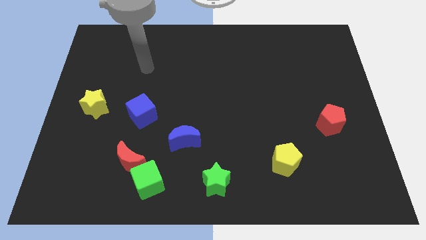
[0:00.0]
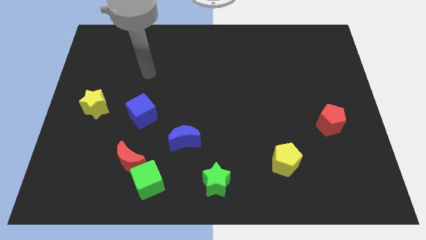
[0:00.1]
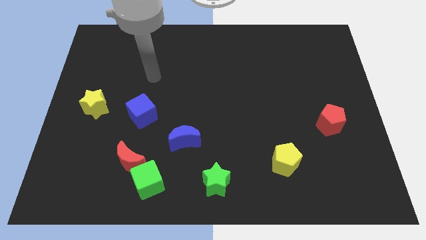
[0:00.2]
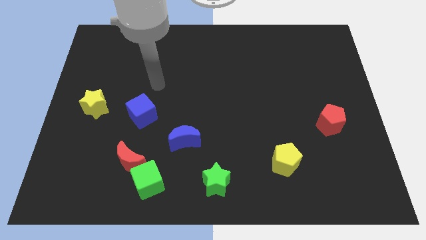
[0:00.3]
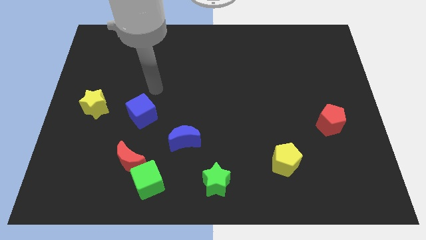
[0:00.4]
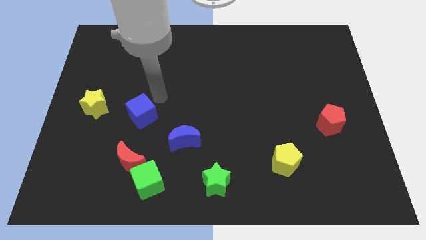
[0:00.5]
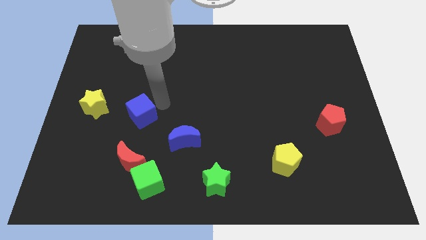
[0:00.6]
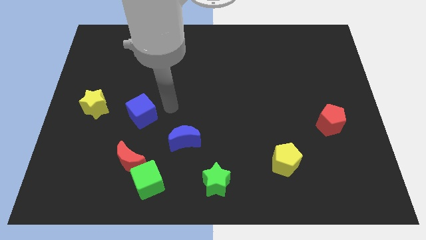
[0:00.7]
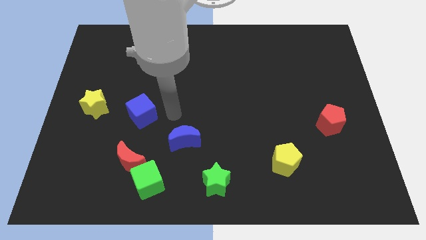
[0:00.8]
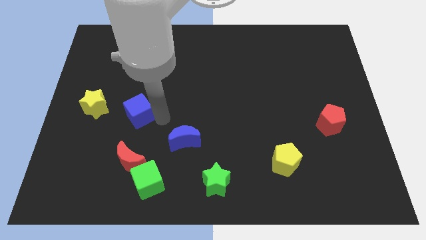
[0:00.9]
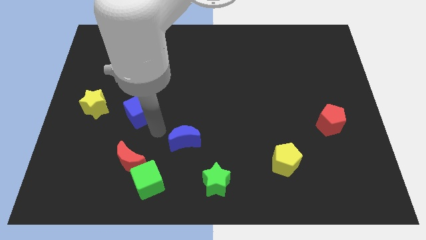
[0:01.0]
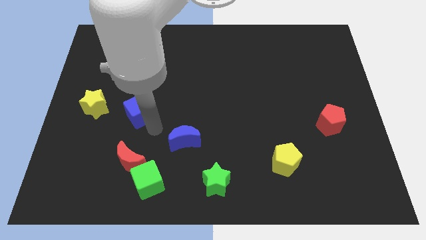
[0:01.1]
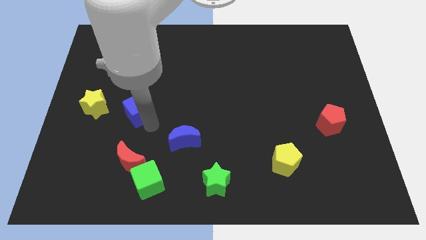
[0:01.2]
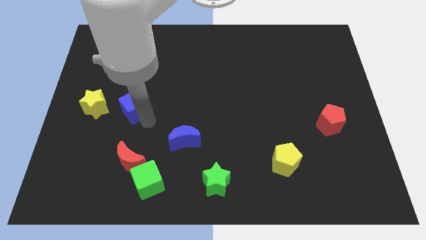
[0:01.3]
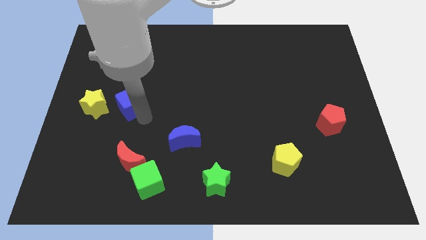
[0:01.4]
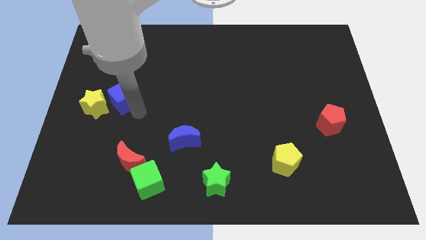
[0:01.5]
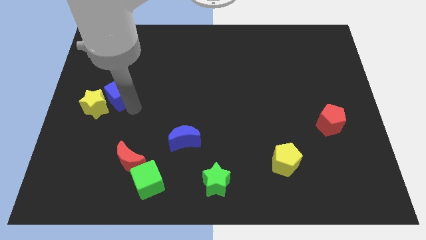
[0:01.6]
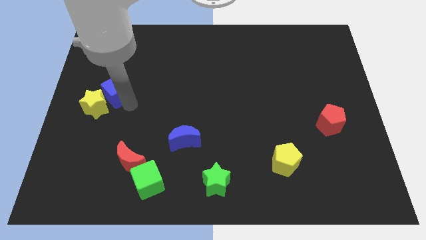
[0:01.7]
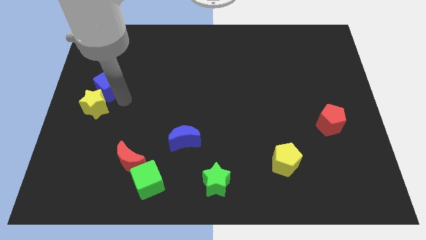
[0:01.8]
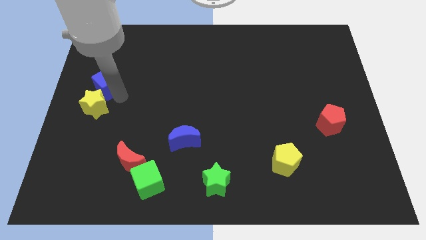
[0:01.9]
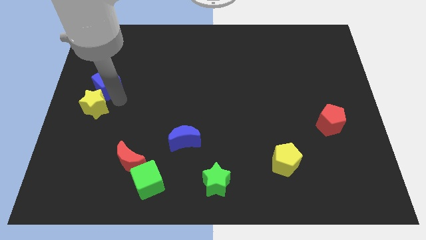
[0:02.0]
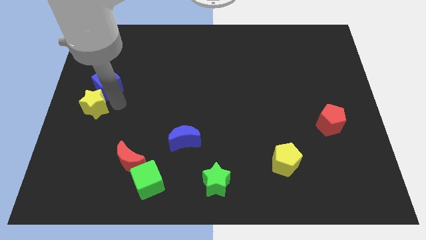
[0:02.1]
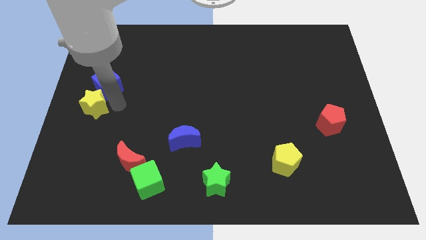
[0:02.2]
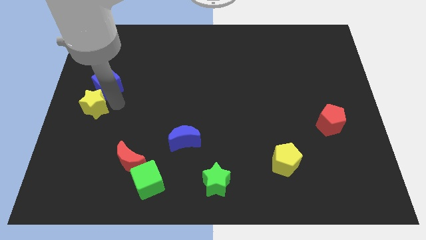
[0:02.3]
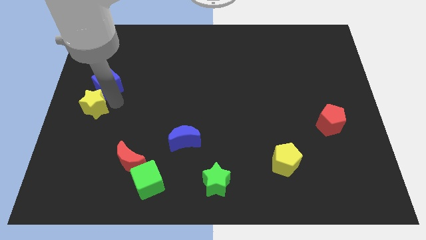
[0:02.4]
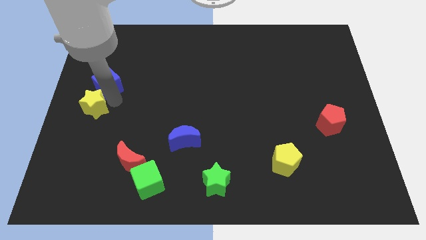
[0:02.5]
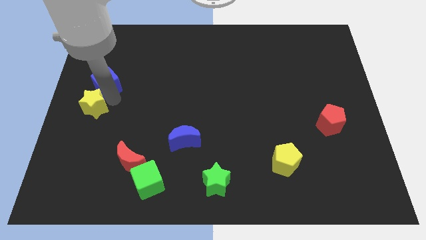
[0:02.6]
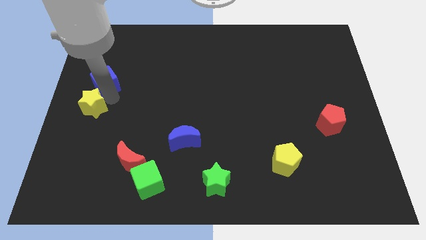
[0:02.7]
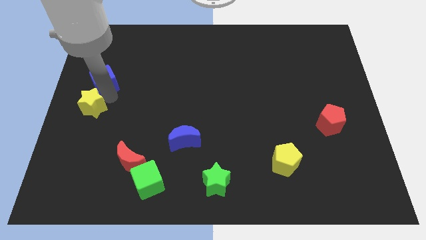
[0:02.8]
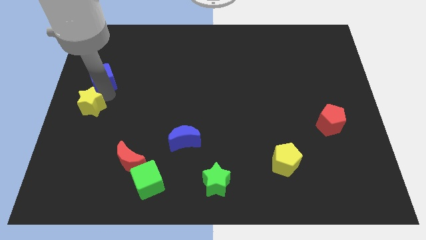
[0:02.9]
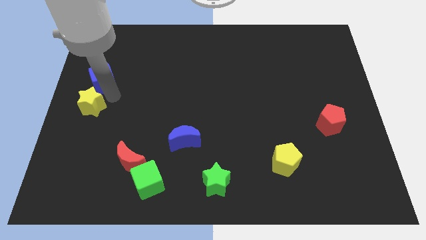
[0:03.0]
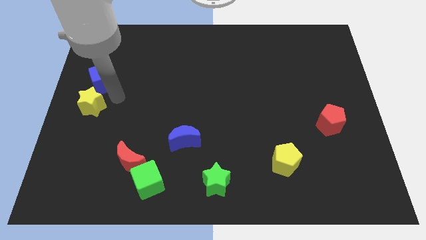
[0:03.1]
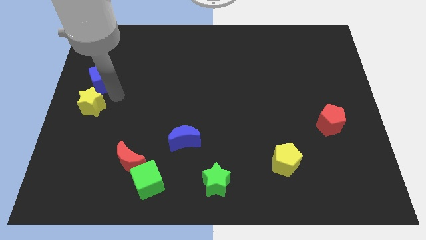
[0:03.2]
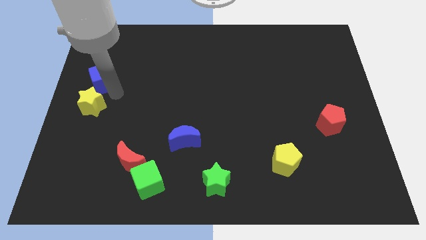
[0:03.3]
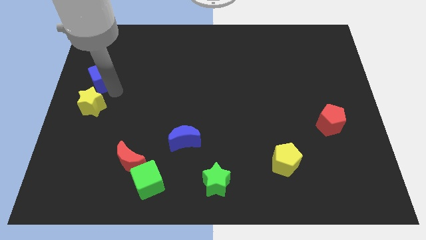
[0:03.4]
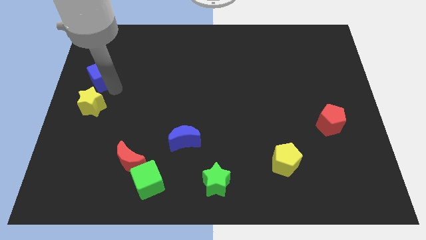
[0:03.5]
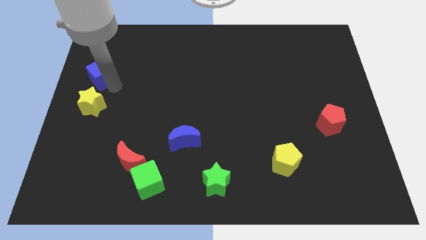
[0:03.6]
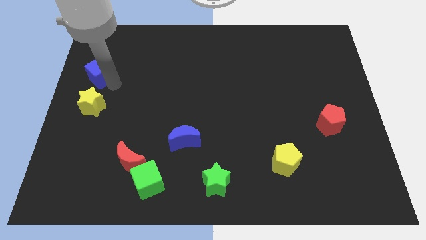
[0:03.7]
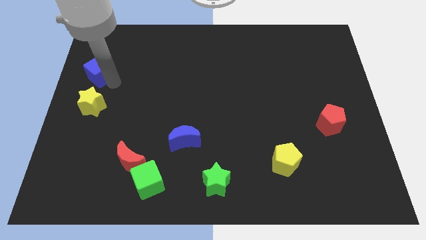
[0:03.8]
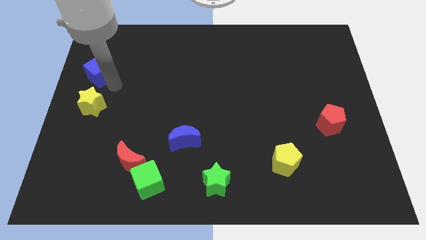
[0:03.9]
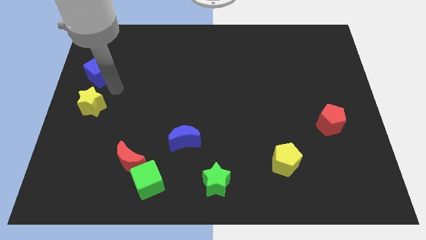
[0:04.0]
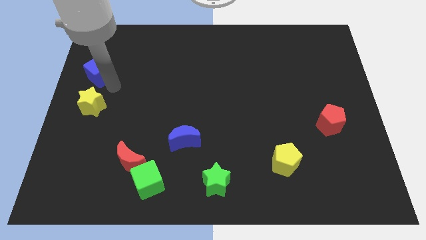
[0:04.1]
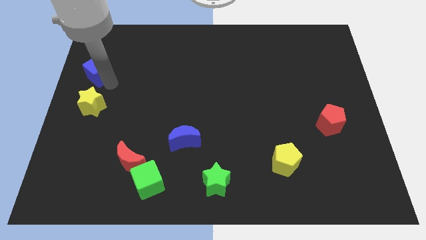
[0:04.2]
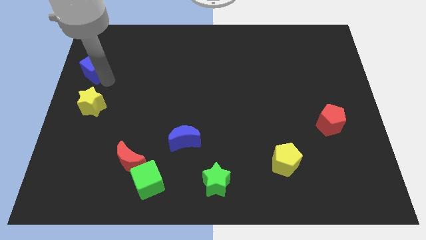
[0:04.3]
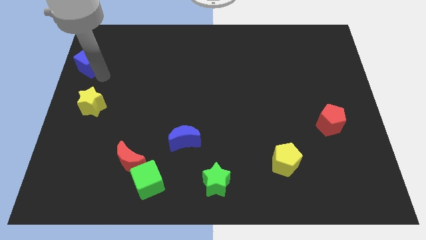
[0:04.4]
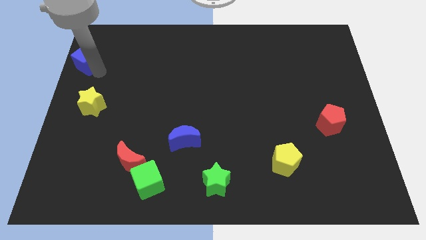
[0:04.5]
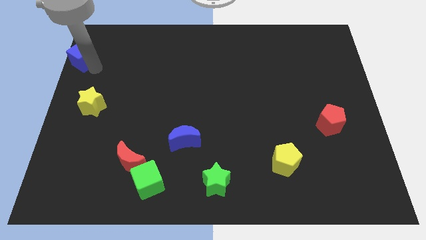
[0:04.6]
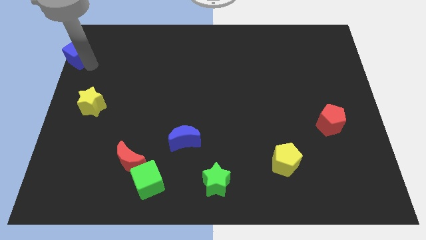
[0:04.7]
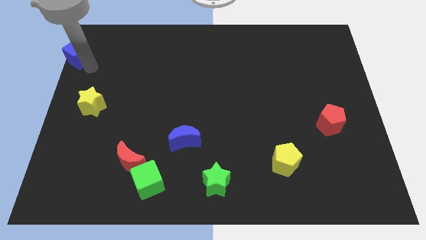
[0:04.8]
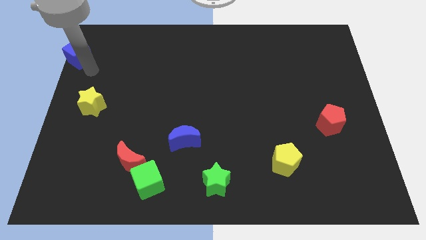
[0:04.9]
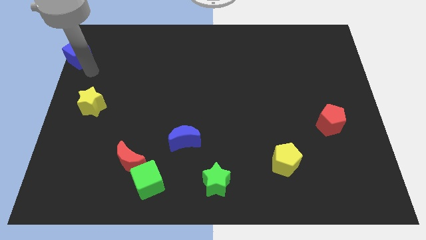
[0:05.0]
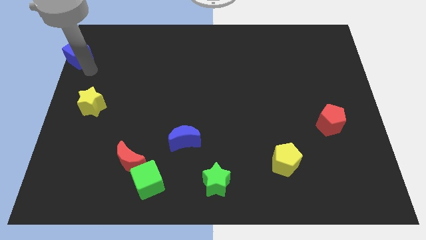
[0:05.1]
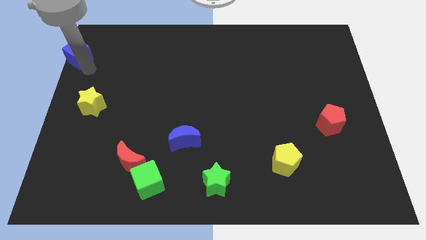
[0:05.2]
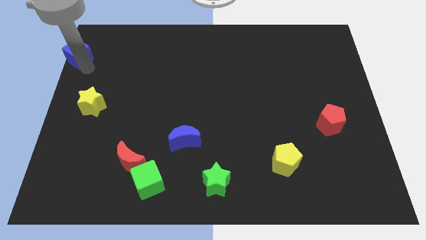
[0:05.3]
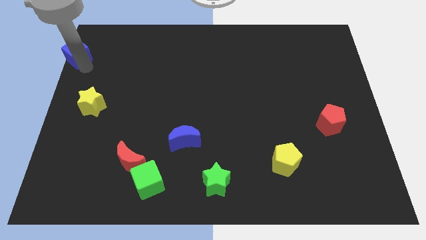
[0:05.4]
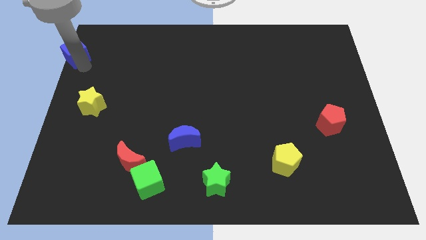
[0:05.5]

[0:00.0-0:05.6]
slide the blue cube to the top left of the board

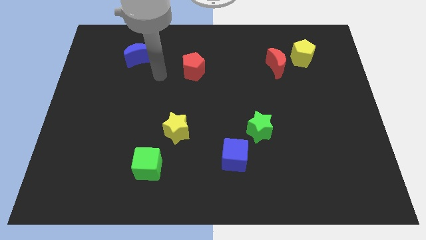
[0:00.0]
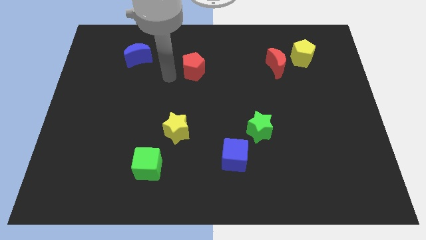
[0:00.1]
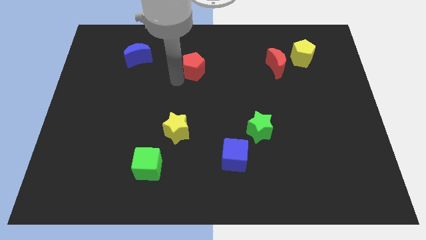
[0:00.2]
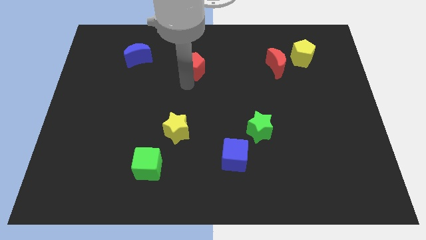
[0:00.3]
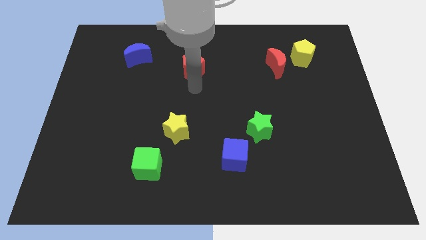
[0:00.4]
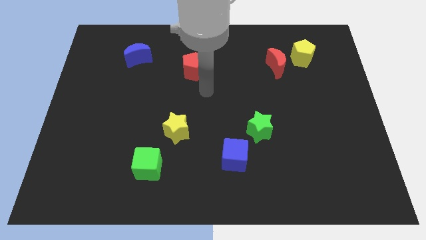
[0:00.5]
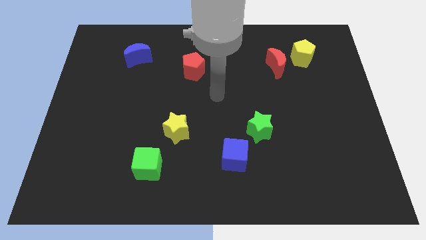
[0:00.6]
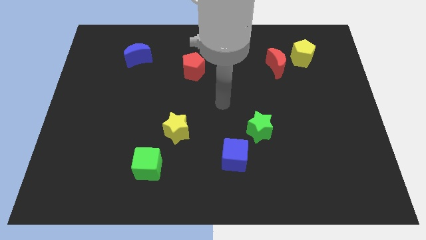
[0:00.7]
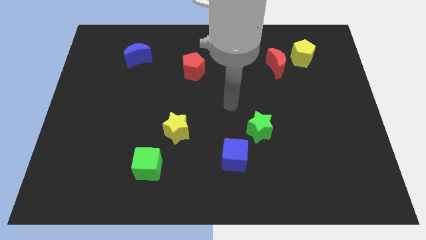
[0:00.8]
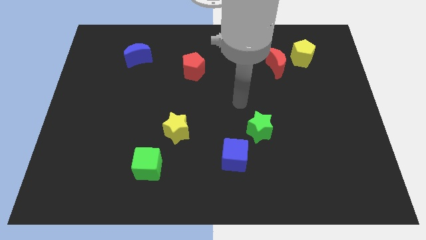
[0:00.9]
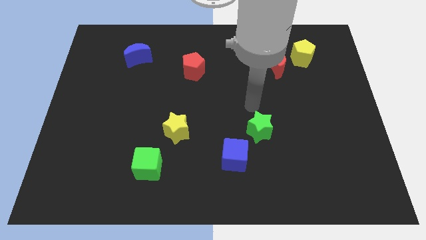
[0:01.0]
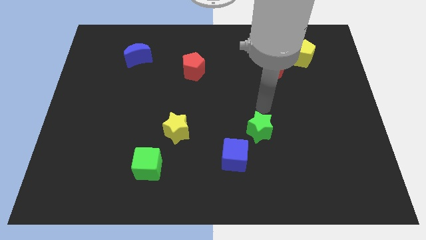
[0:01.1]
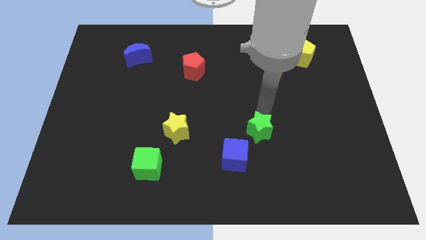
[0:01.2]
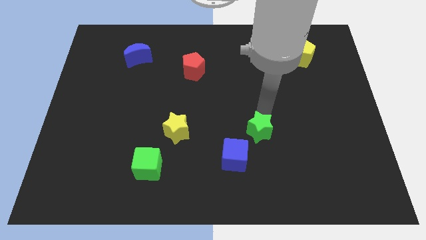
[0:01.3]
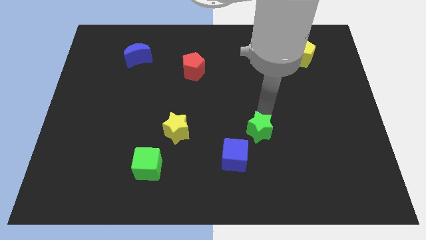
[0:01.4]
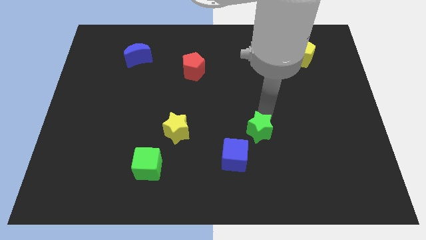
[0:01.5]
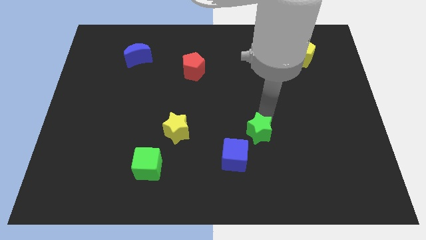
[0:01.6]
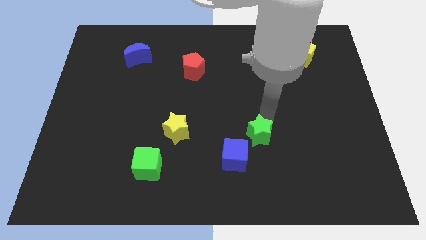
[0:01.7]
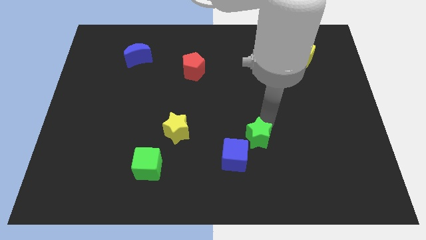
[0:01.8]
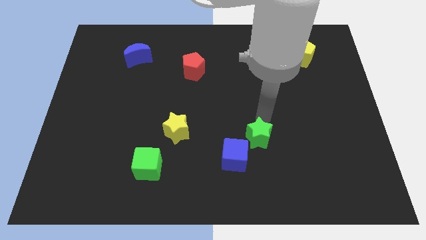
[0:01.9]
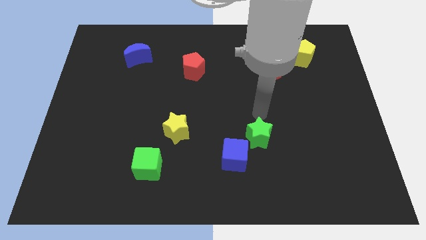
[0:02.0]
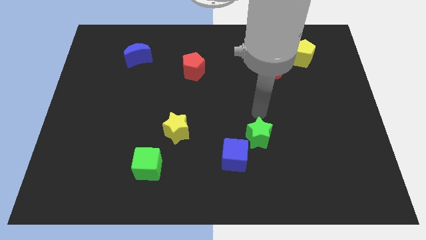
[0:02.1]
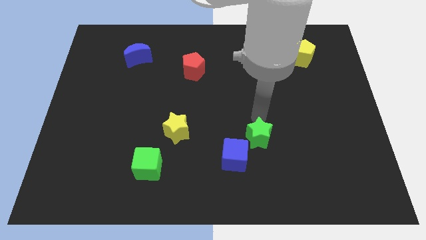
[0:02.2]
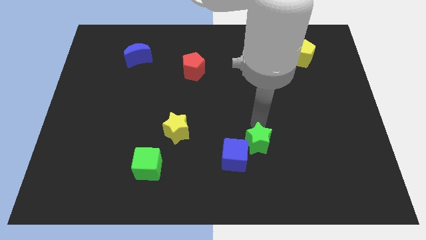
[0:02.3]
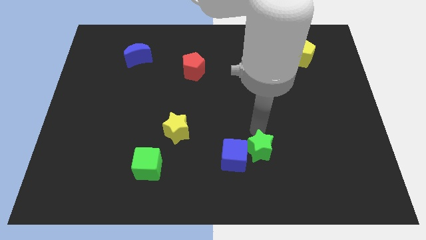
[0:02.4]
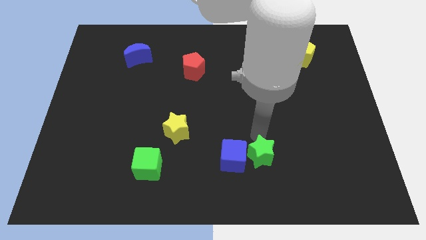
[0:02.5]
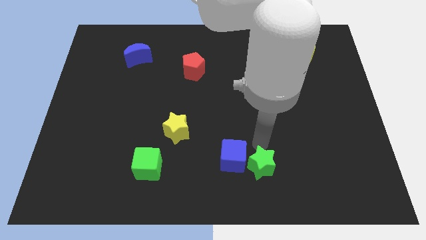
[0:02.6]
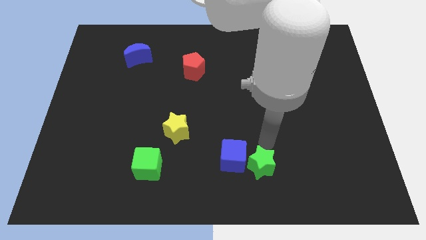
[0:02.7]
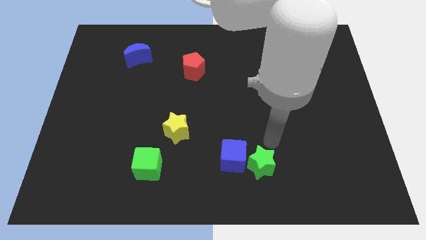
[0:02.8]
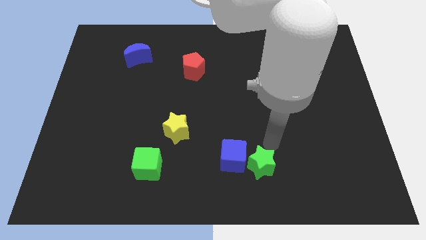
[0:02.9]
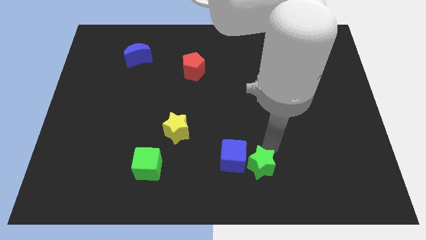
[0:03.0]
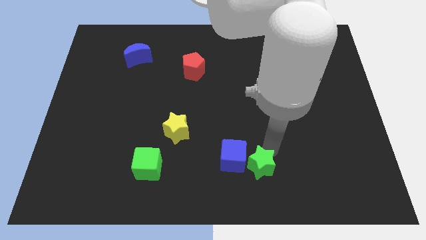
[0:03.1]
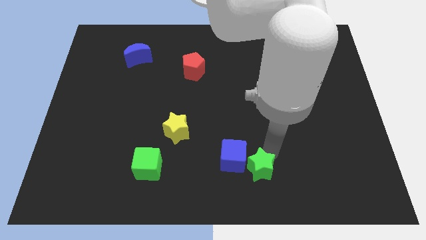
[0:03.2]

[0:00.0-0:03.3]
put the green star to the bottom side
